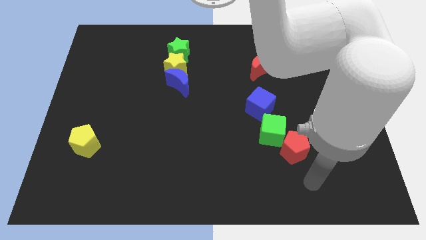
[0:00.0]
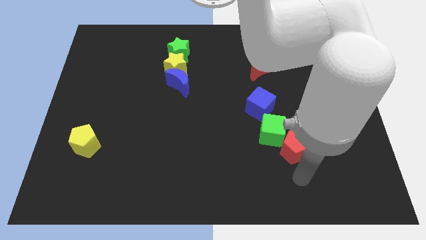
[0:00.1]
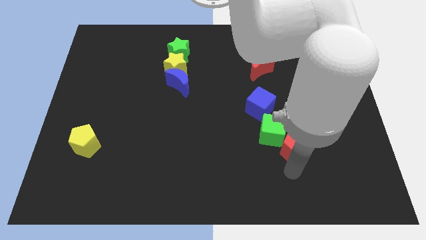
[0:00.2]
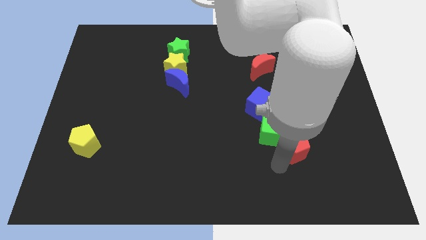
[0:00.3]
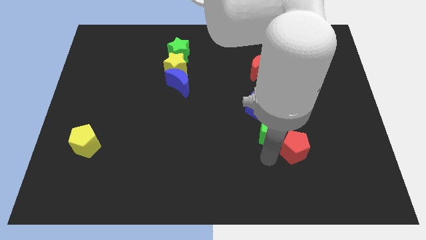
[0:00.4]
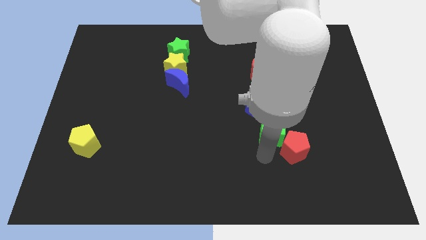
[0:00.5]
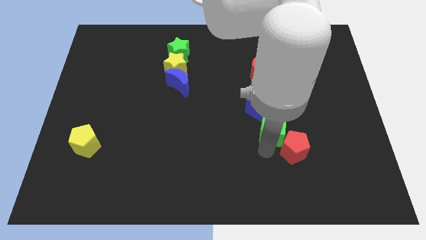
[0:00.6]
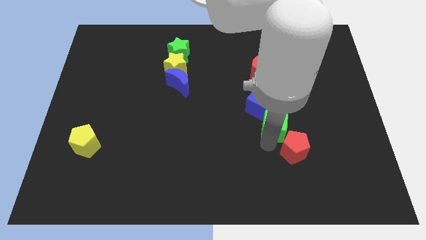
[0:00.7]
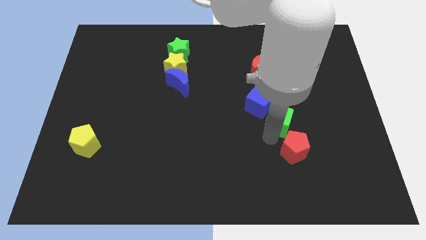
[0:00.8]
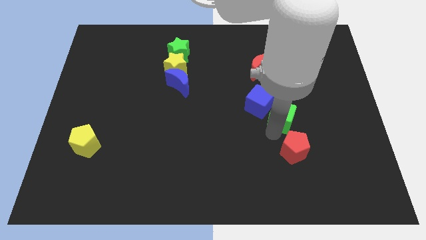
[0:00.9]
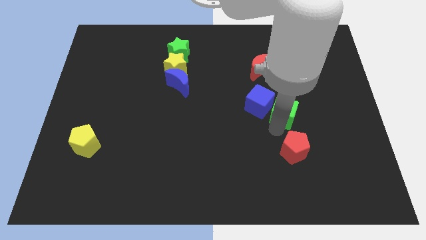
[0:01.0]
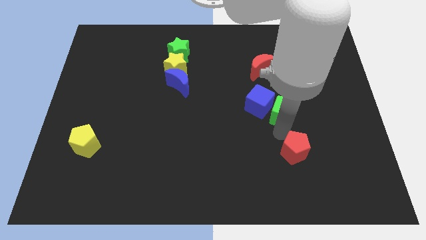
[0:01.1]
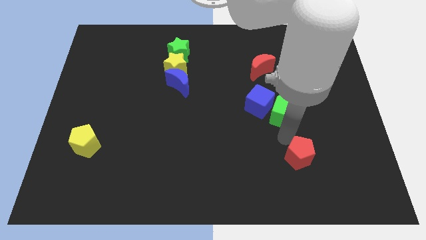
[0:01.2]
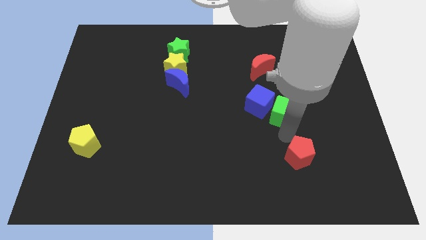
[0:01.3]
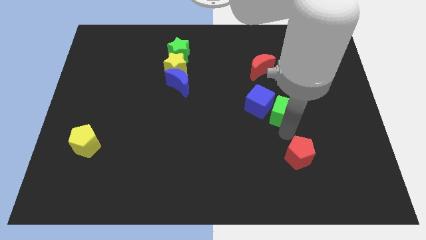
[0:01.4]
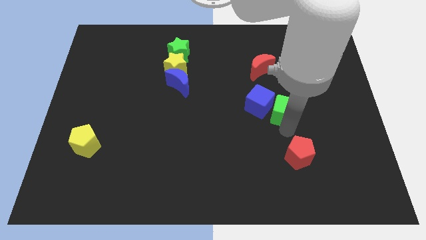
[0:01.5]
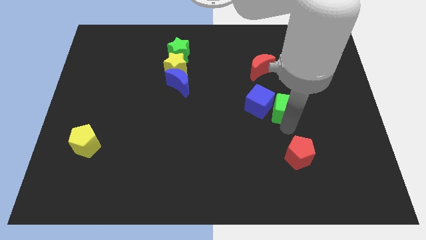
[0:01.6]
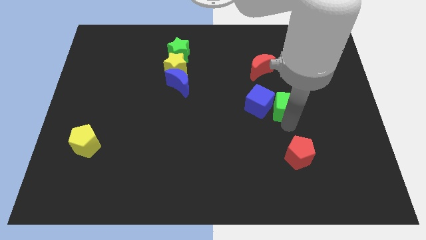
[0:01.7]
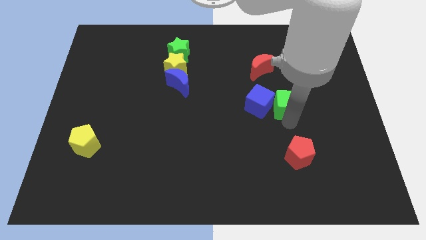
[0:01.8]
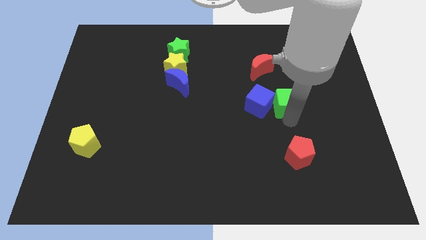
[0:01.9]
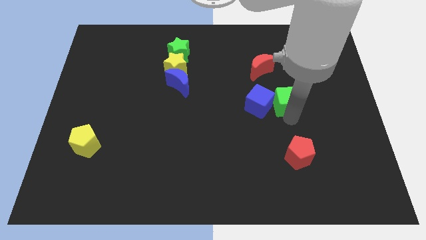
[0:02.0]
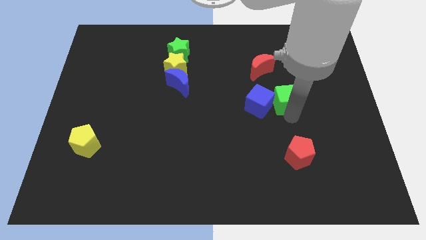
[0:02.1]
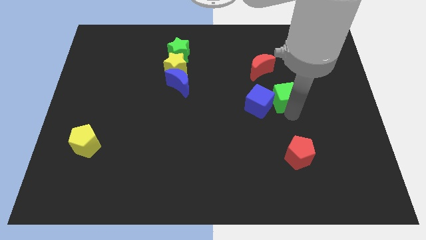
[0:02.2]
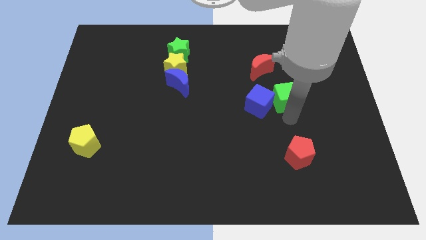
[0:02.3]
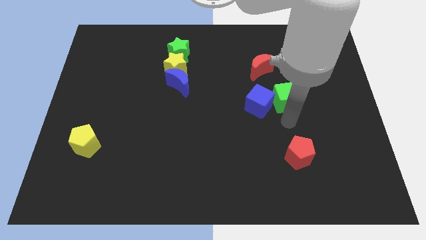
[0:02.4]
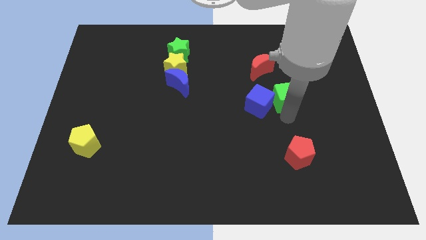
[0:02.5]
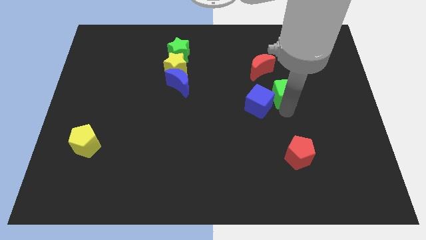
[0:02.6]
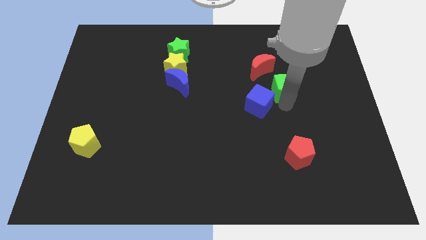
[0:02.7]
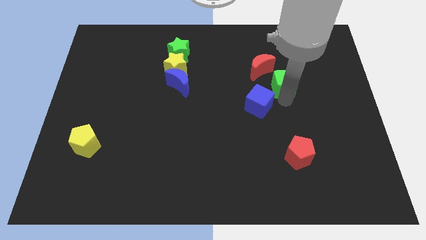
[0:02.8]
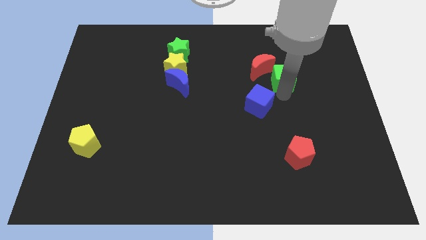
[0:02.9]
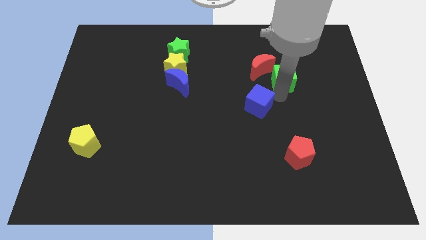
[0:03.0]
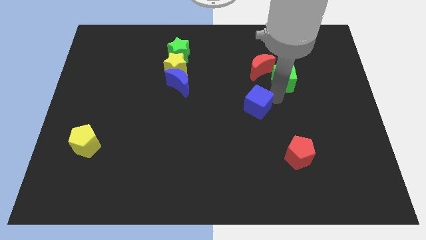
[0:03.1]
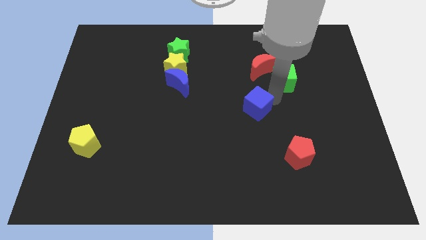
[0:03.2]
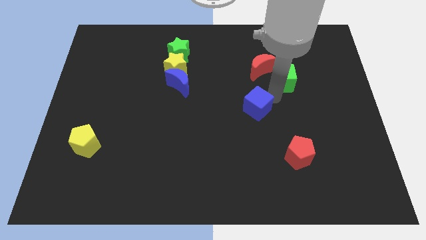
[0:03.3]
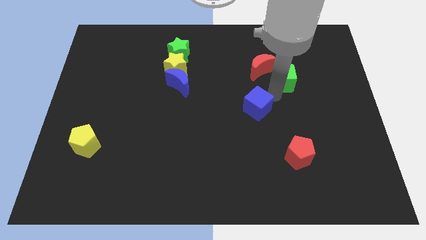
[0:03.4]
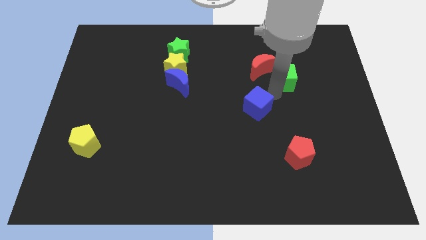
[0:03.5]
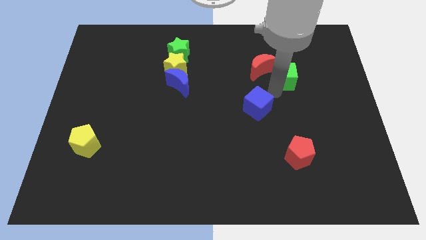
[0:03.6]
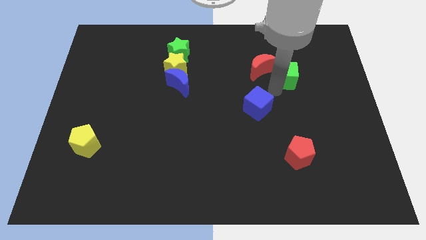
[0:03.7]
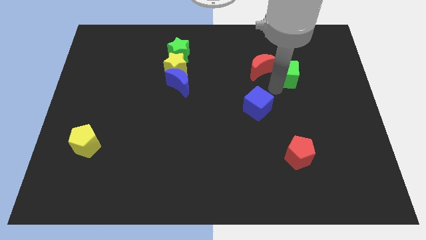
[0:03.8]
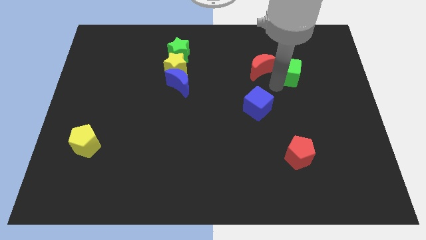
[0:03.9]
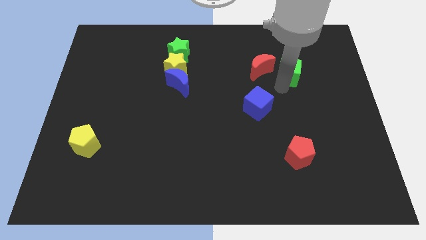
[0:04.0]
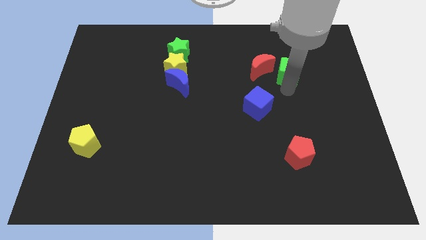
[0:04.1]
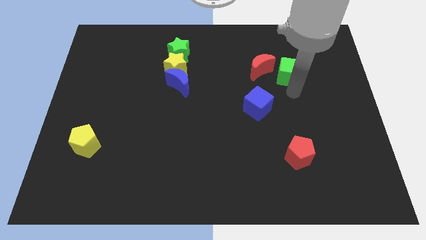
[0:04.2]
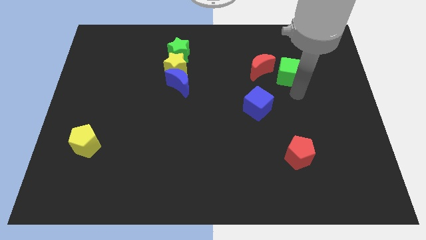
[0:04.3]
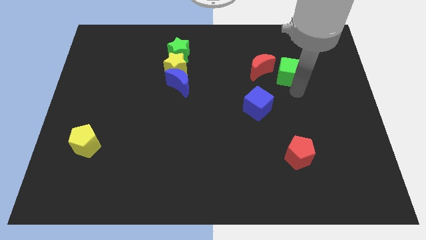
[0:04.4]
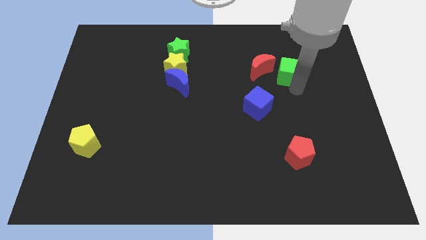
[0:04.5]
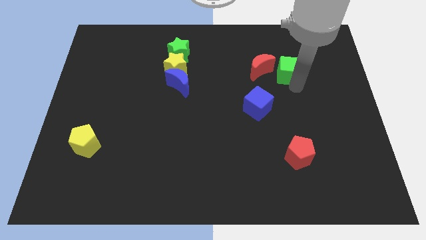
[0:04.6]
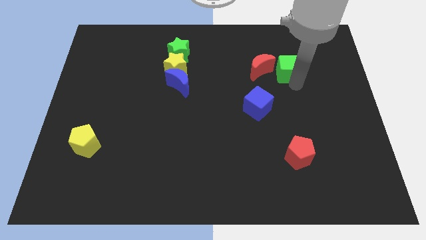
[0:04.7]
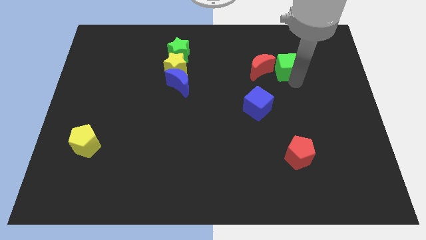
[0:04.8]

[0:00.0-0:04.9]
move the green cube diagonally up and to the right of the red moon

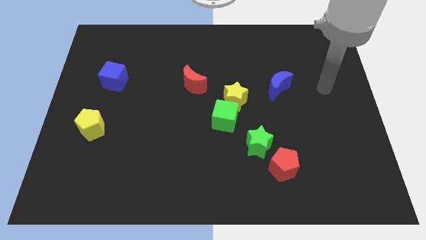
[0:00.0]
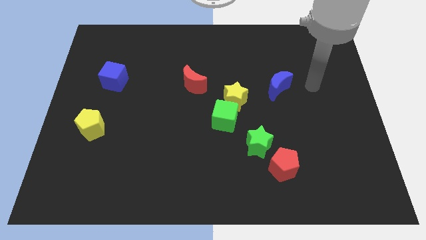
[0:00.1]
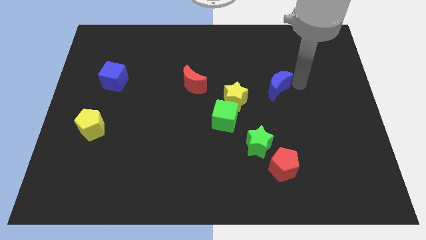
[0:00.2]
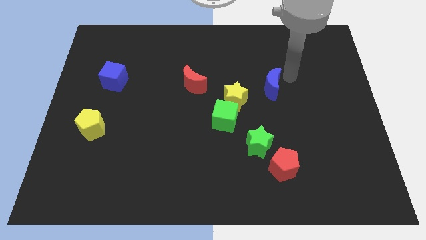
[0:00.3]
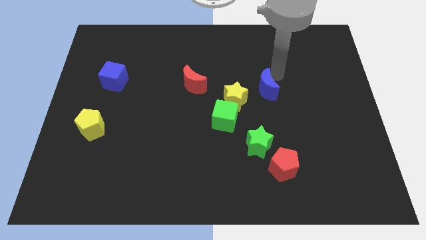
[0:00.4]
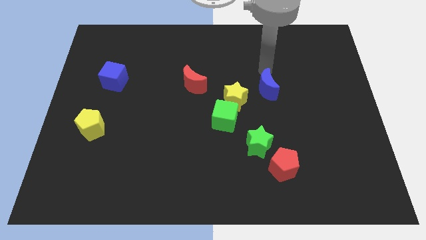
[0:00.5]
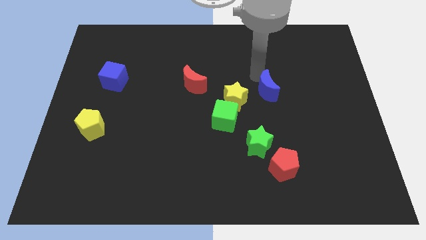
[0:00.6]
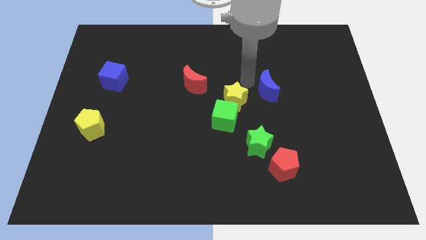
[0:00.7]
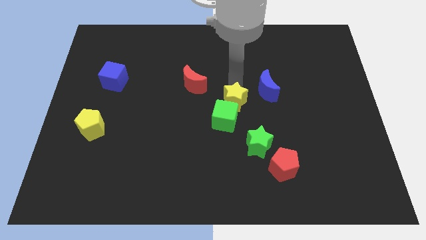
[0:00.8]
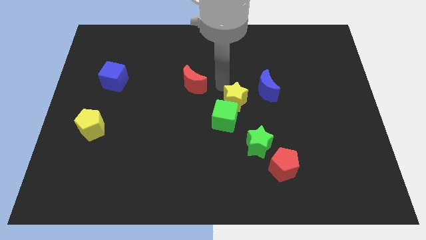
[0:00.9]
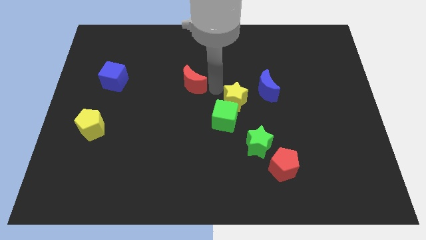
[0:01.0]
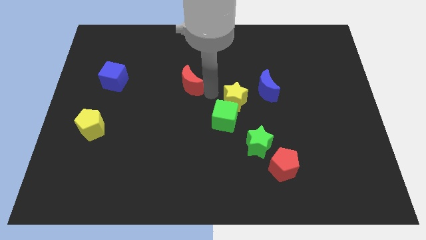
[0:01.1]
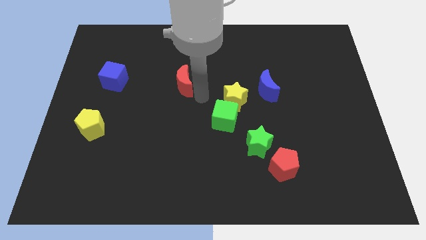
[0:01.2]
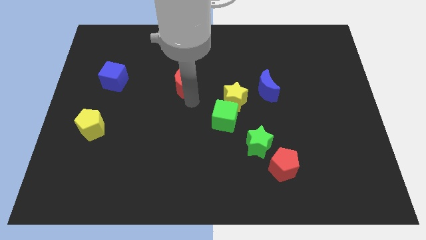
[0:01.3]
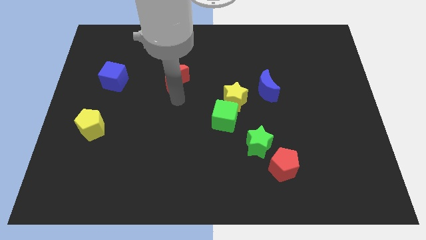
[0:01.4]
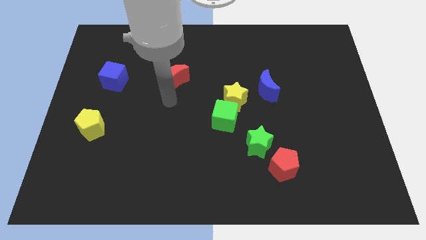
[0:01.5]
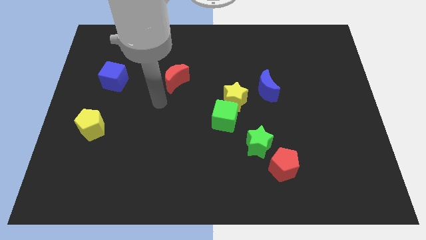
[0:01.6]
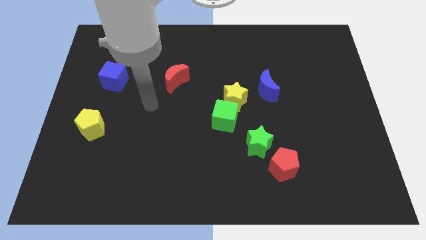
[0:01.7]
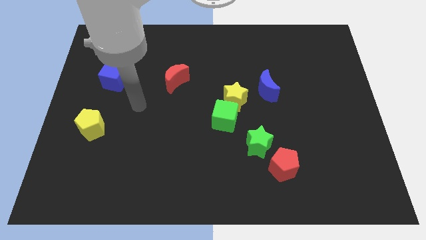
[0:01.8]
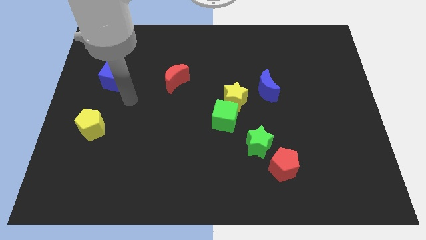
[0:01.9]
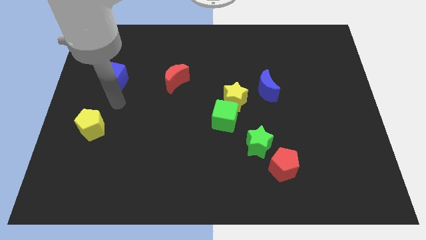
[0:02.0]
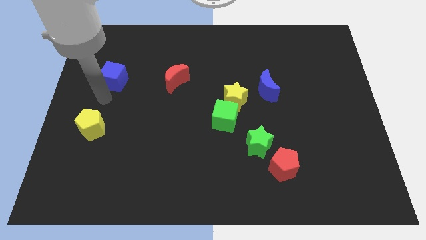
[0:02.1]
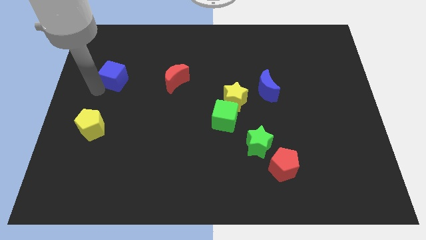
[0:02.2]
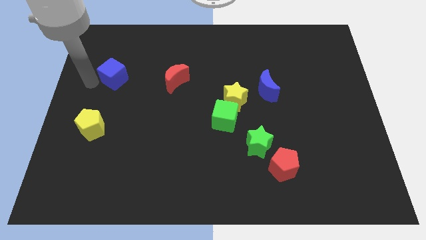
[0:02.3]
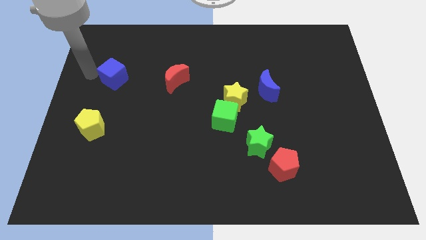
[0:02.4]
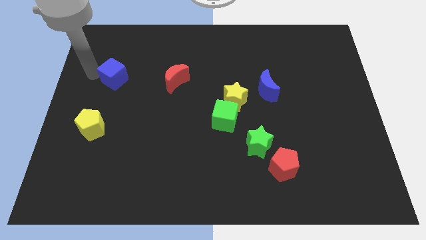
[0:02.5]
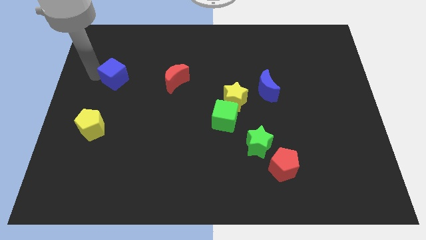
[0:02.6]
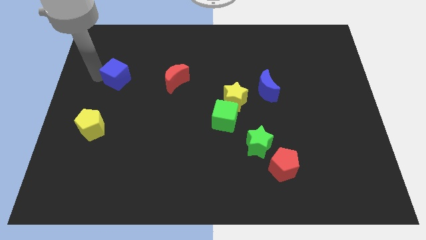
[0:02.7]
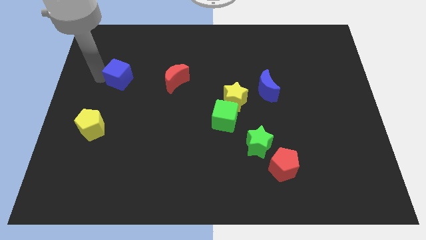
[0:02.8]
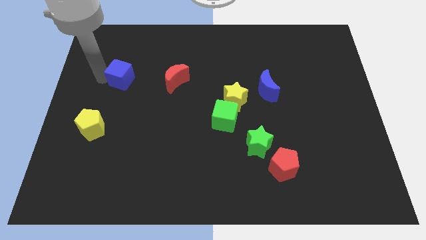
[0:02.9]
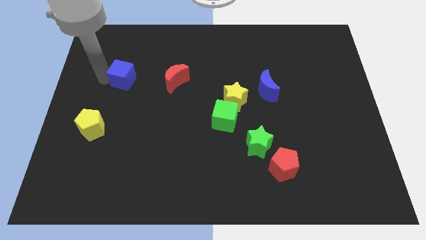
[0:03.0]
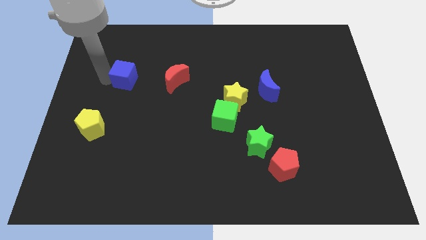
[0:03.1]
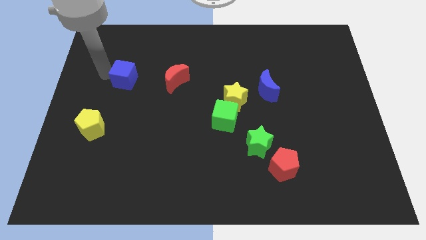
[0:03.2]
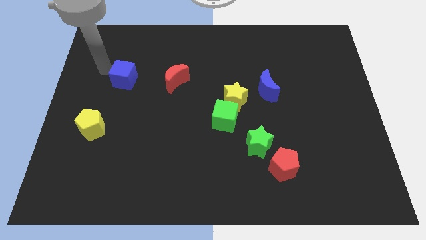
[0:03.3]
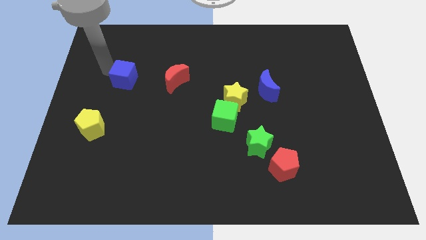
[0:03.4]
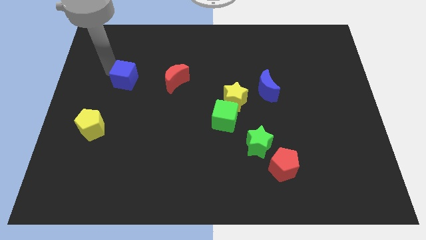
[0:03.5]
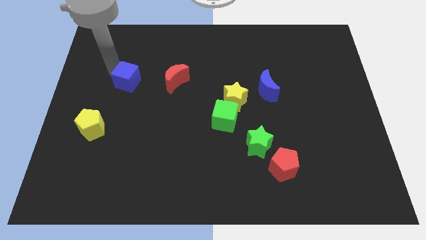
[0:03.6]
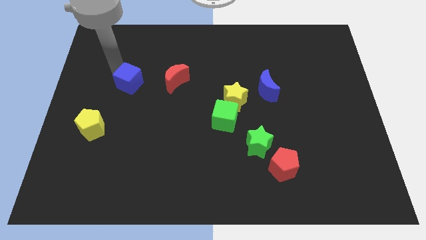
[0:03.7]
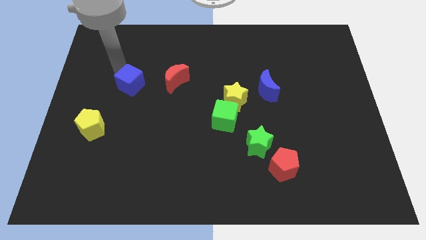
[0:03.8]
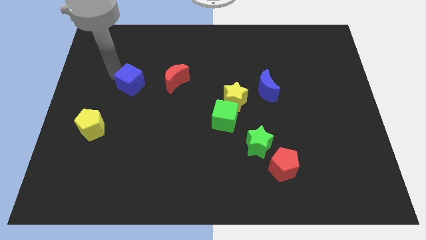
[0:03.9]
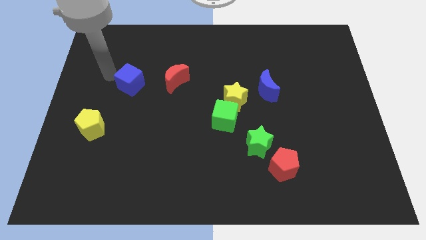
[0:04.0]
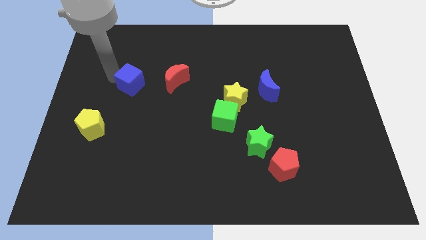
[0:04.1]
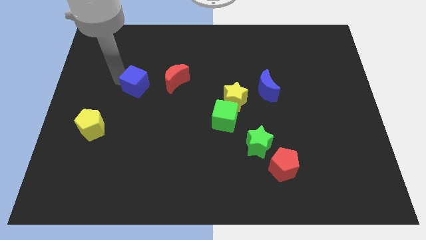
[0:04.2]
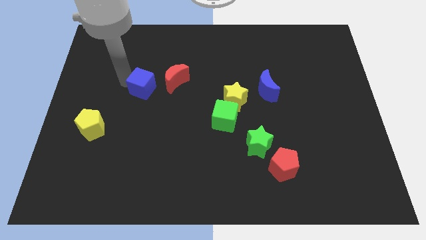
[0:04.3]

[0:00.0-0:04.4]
slide the blue cube to the bottom left of the red moon
